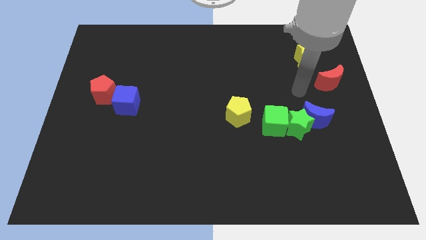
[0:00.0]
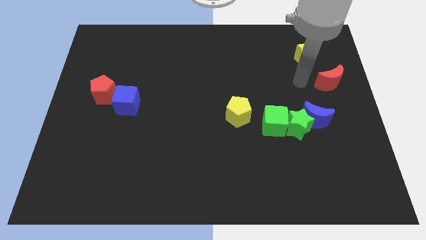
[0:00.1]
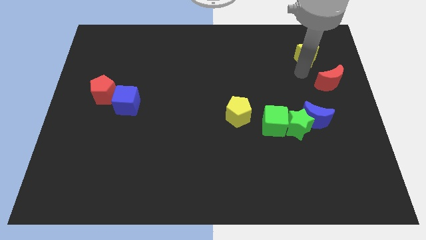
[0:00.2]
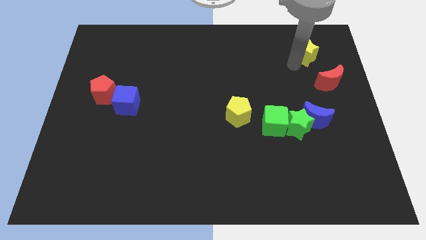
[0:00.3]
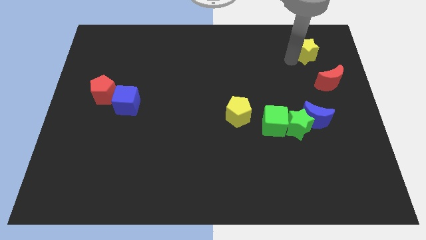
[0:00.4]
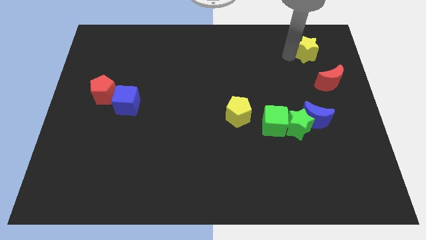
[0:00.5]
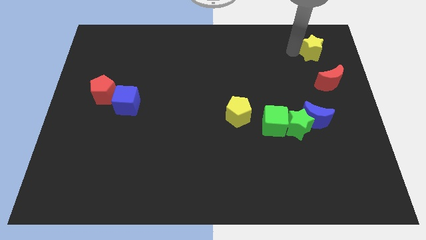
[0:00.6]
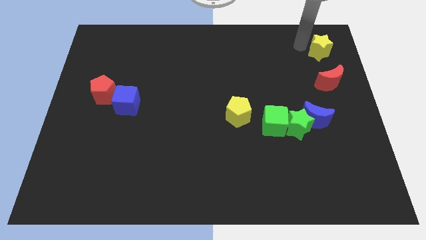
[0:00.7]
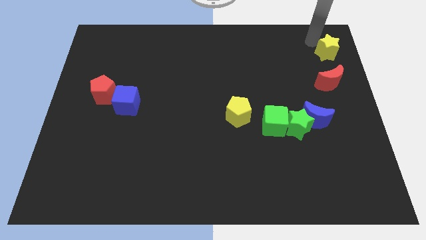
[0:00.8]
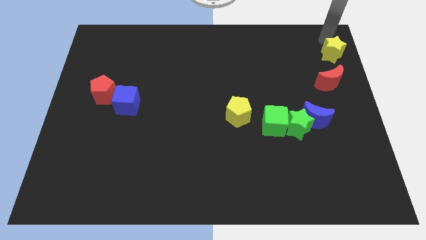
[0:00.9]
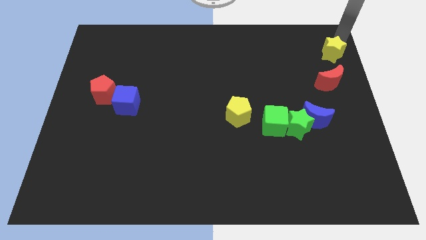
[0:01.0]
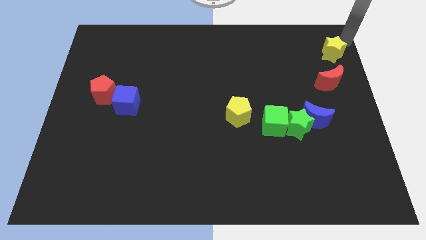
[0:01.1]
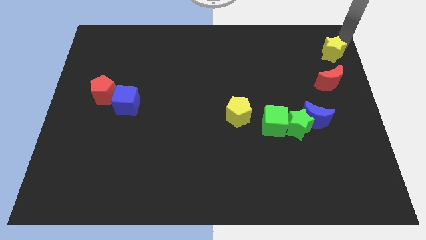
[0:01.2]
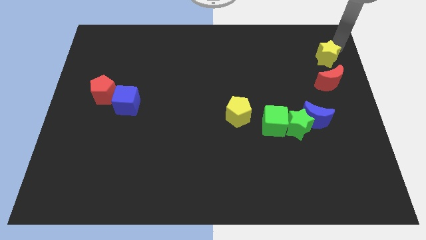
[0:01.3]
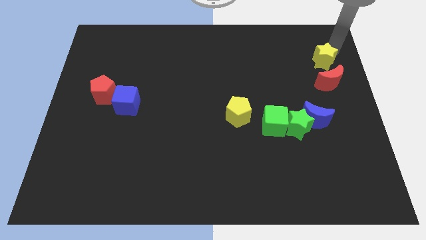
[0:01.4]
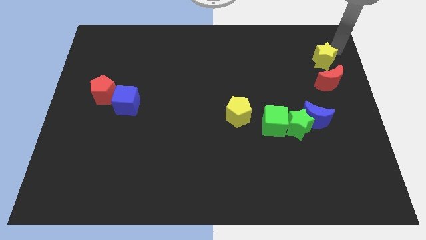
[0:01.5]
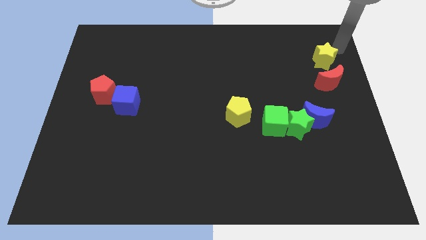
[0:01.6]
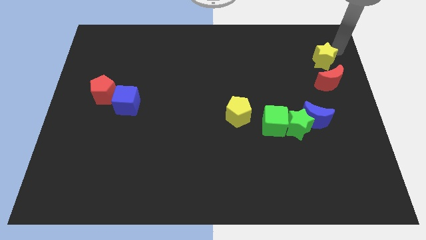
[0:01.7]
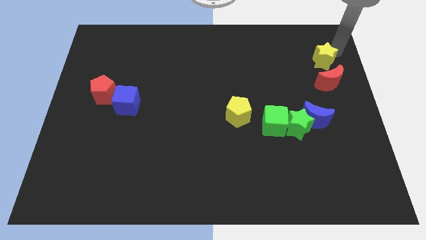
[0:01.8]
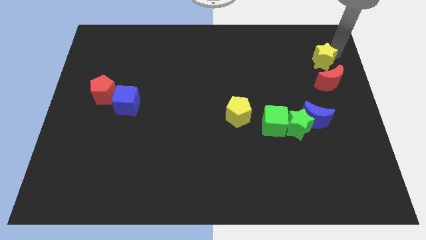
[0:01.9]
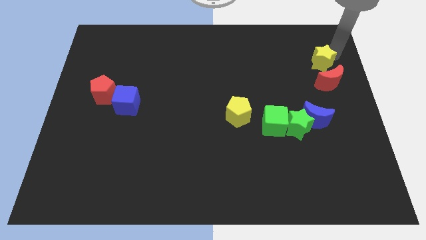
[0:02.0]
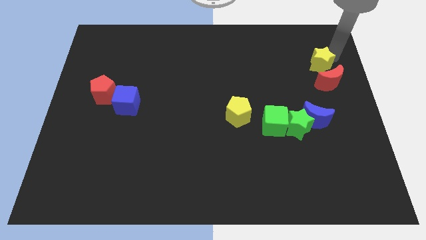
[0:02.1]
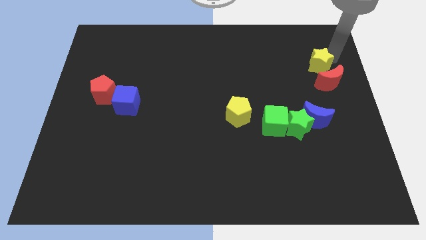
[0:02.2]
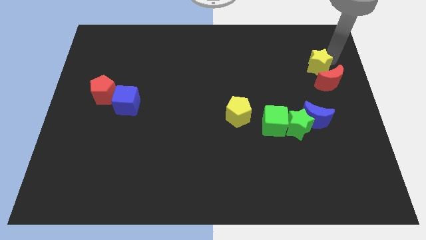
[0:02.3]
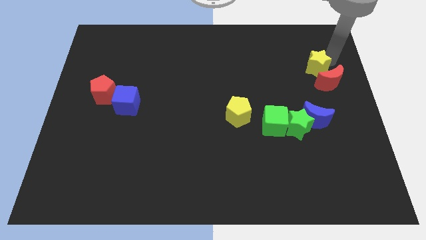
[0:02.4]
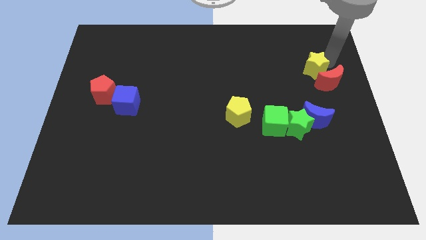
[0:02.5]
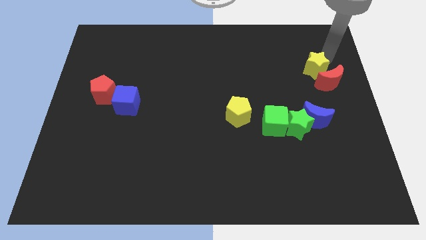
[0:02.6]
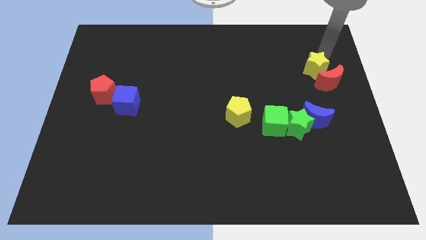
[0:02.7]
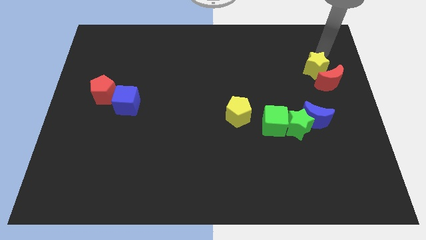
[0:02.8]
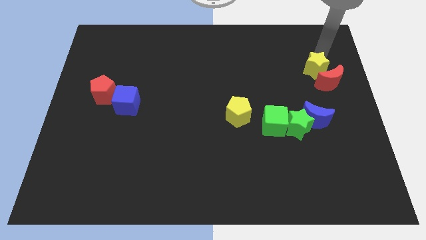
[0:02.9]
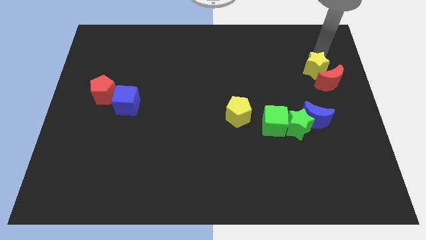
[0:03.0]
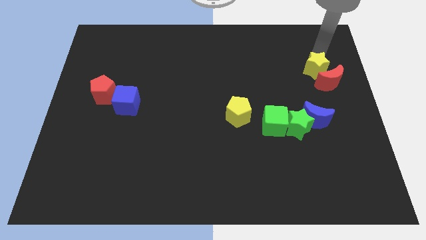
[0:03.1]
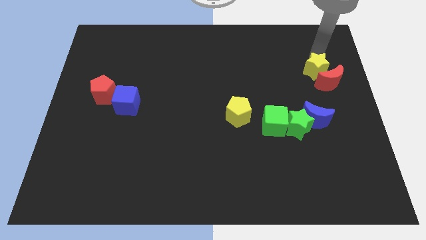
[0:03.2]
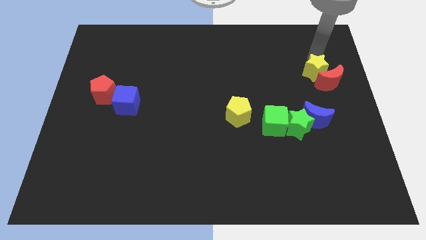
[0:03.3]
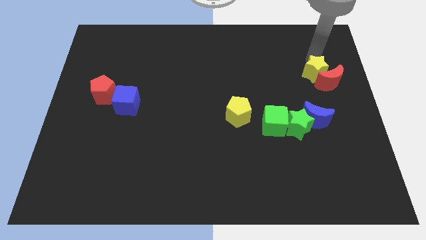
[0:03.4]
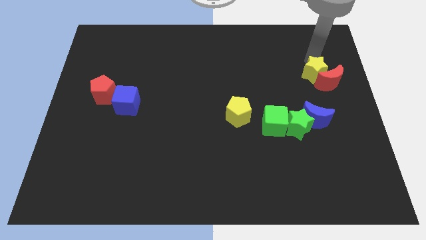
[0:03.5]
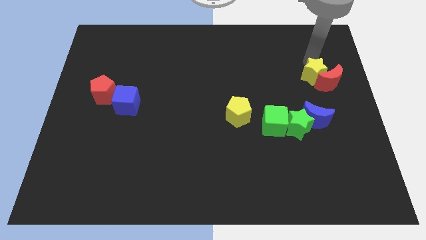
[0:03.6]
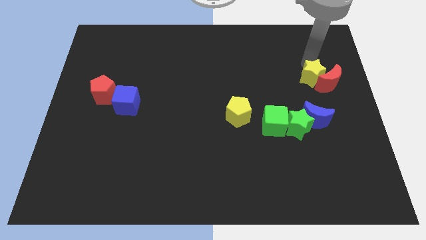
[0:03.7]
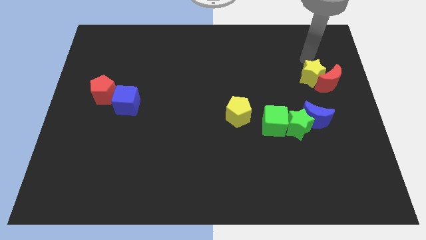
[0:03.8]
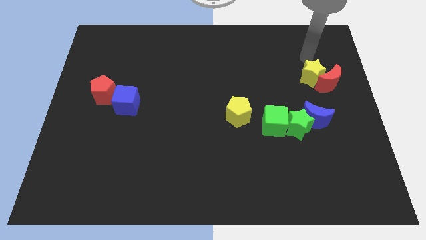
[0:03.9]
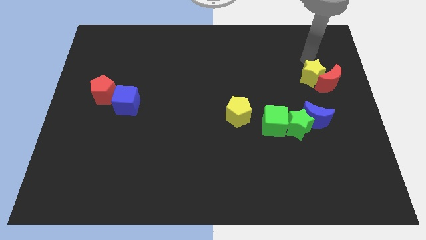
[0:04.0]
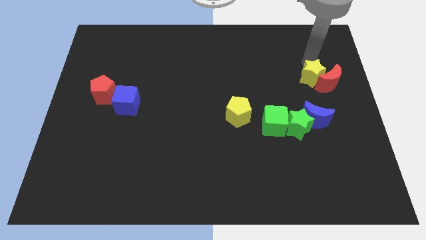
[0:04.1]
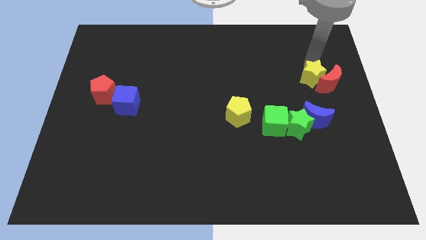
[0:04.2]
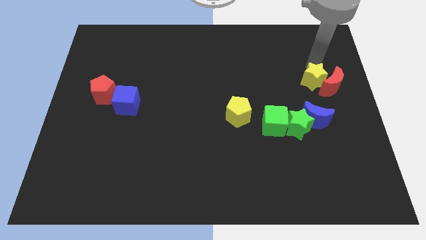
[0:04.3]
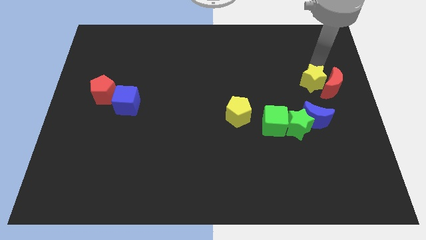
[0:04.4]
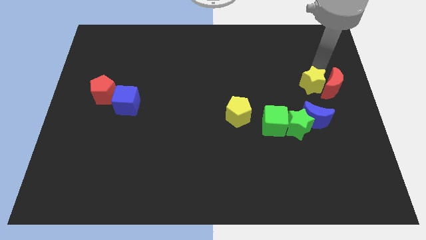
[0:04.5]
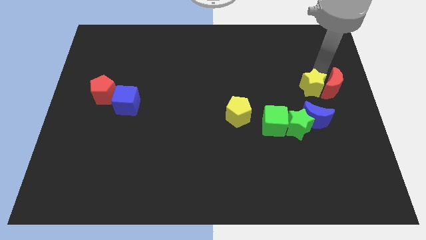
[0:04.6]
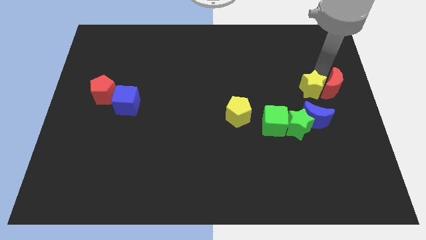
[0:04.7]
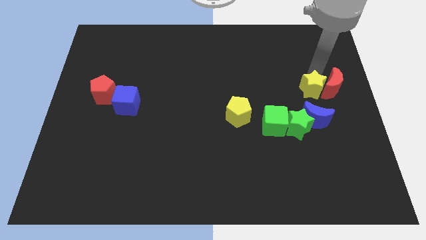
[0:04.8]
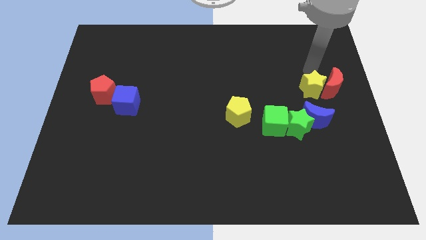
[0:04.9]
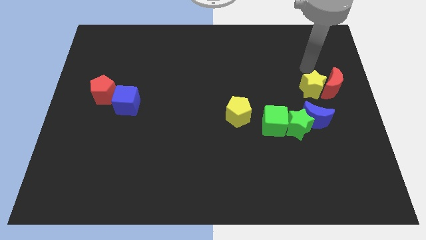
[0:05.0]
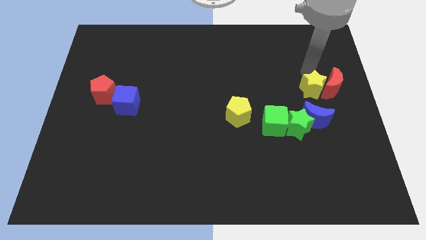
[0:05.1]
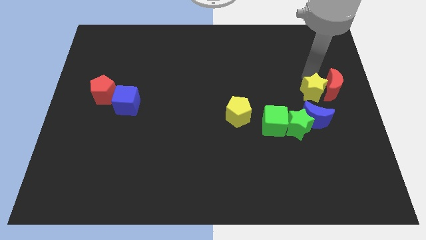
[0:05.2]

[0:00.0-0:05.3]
slide the yellow star diagonally up and to the right of the green star

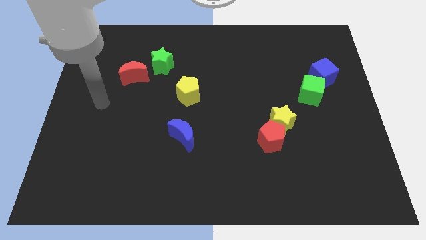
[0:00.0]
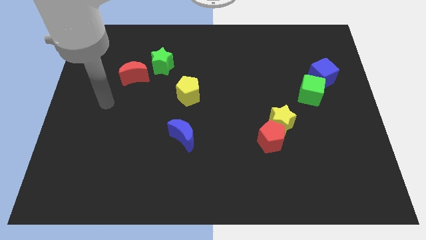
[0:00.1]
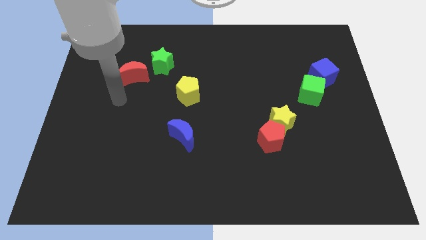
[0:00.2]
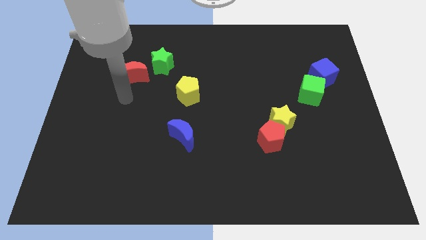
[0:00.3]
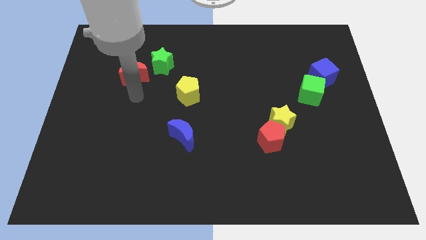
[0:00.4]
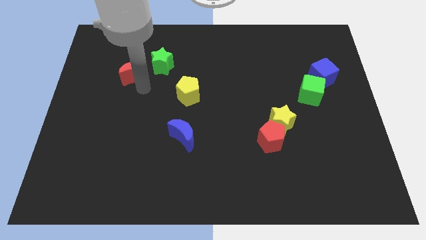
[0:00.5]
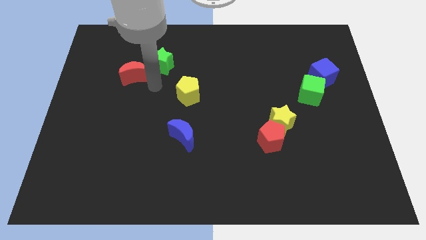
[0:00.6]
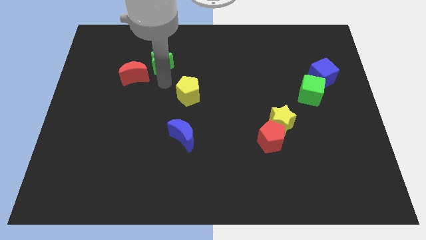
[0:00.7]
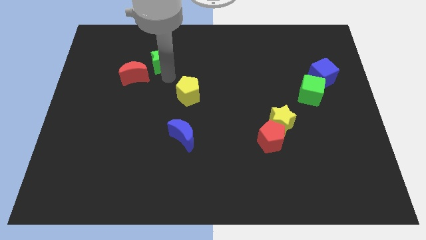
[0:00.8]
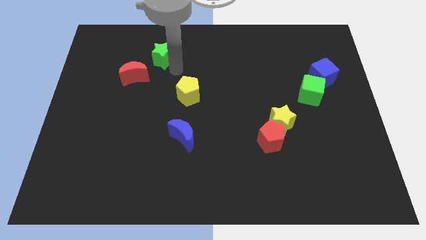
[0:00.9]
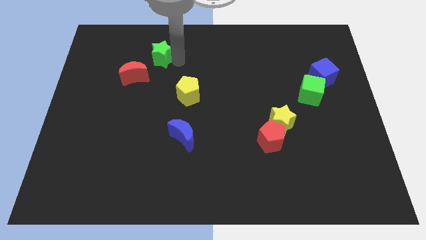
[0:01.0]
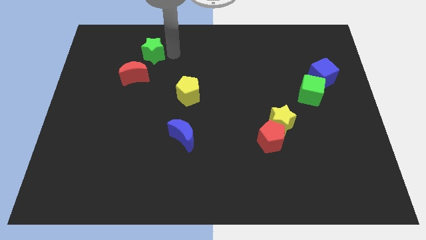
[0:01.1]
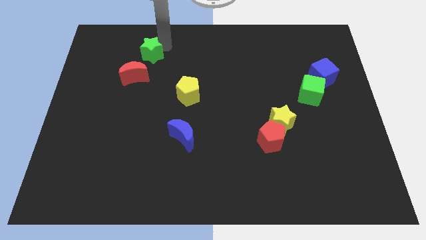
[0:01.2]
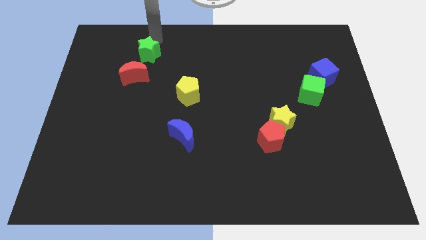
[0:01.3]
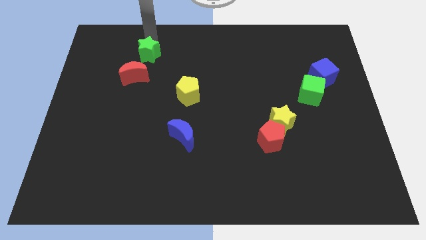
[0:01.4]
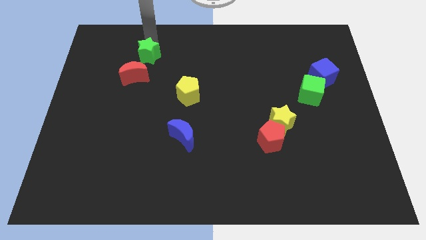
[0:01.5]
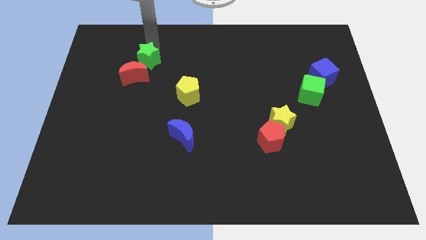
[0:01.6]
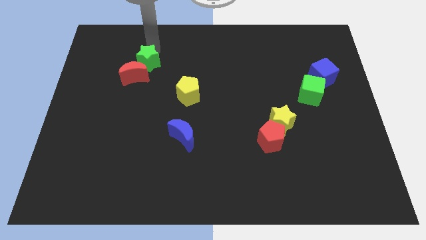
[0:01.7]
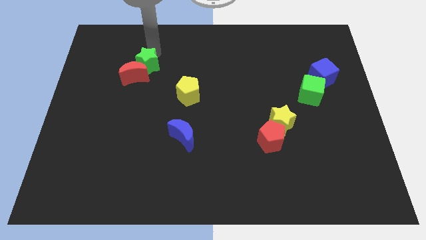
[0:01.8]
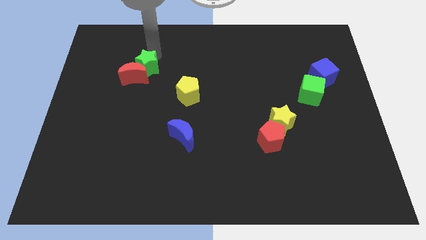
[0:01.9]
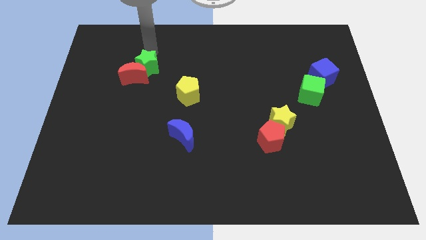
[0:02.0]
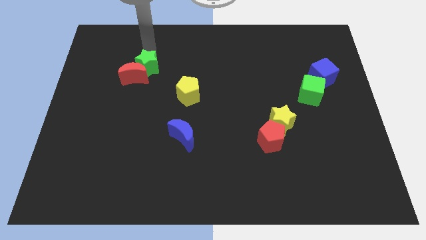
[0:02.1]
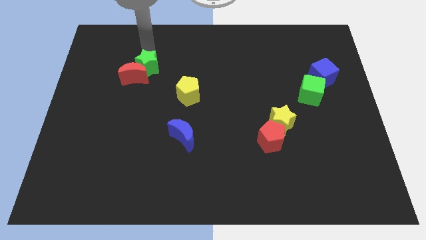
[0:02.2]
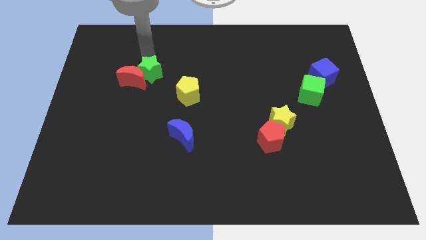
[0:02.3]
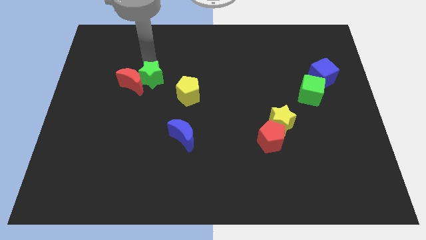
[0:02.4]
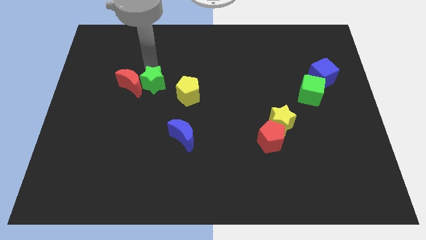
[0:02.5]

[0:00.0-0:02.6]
slide the green star left of the yellow pentagon

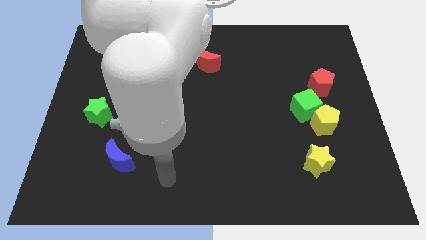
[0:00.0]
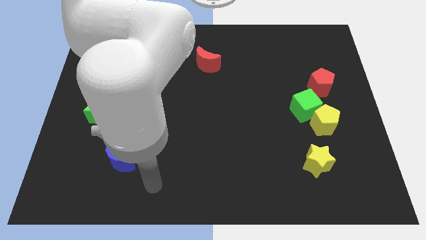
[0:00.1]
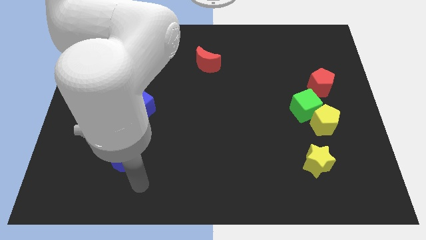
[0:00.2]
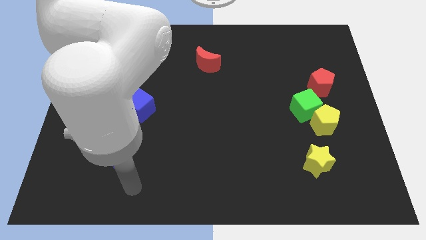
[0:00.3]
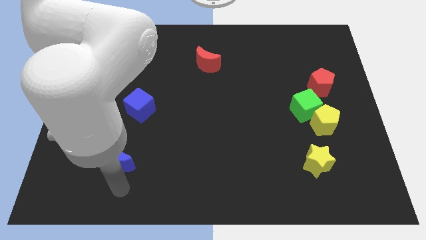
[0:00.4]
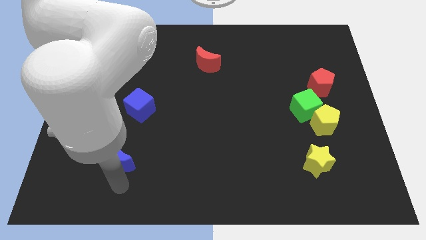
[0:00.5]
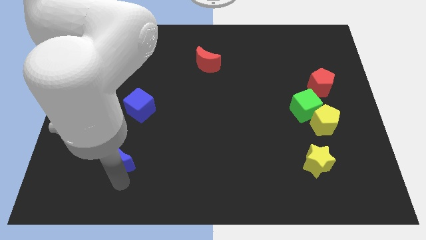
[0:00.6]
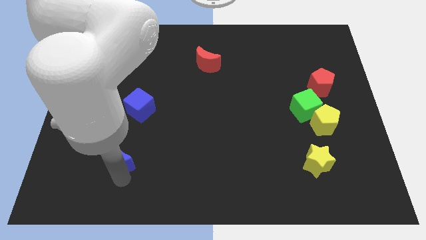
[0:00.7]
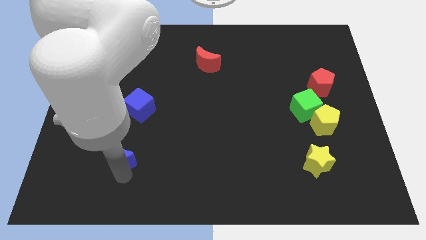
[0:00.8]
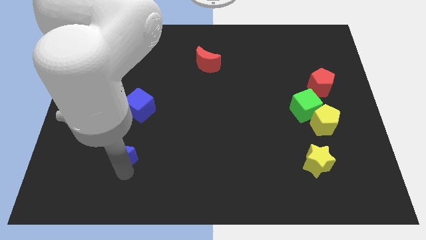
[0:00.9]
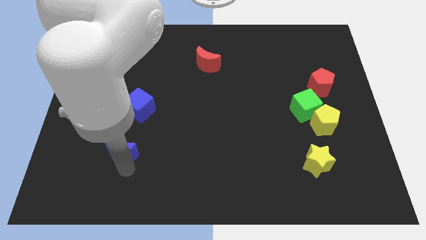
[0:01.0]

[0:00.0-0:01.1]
move the blue moon to the bottom right of the green star
